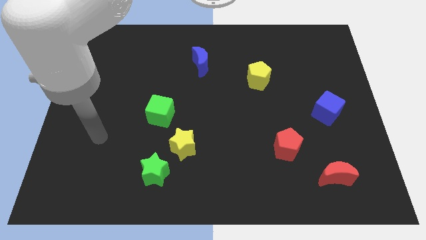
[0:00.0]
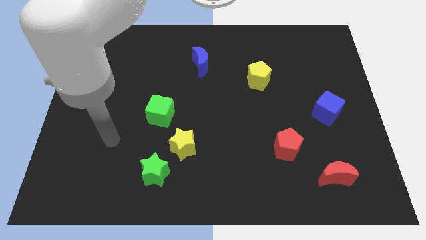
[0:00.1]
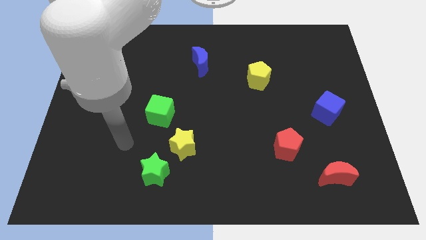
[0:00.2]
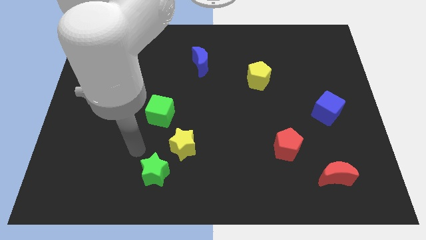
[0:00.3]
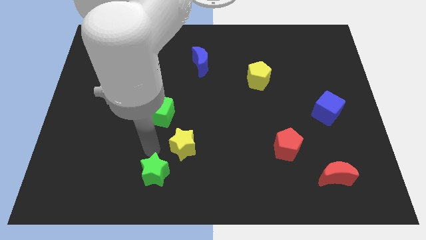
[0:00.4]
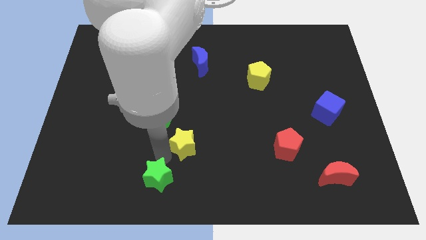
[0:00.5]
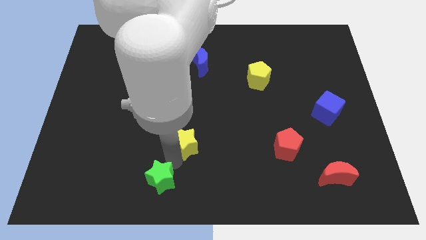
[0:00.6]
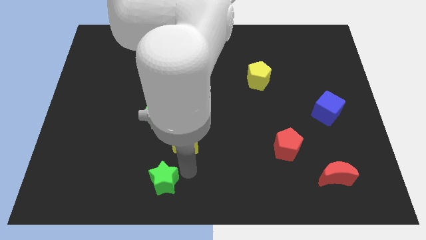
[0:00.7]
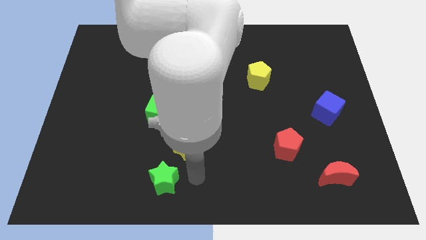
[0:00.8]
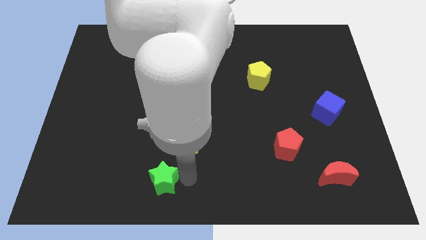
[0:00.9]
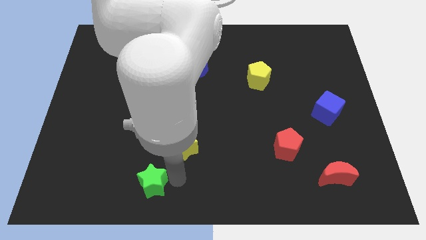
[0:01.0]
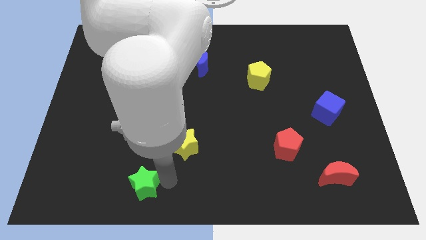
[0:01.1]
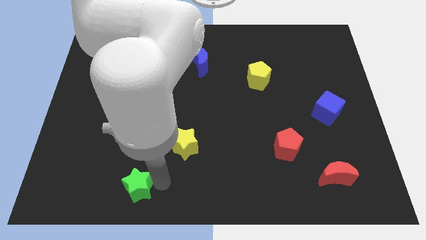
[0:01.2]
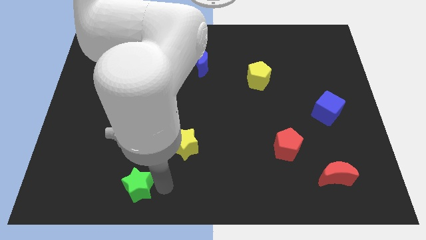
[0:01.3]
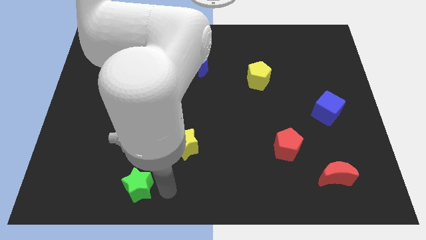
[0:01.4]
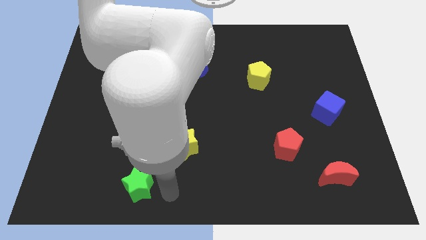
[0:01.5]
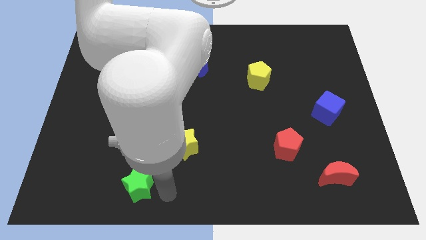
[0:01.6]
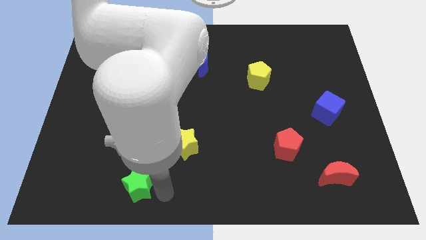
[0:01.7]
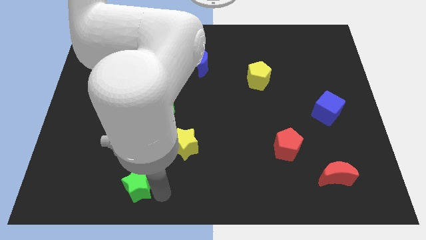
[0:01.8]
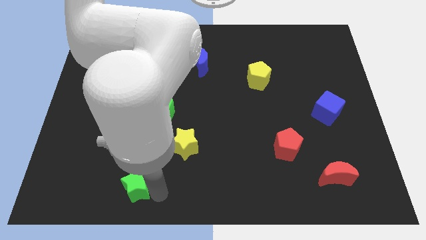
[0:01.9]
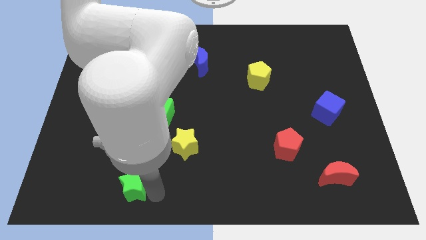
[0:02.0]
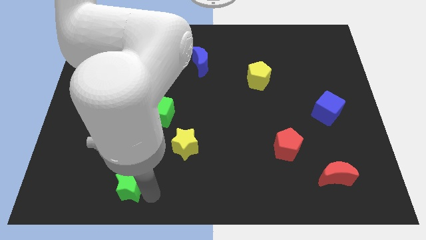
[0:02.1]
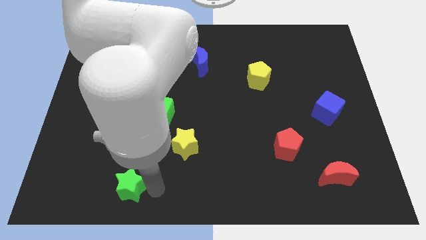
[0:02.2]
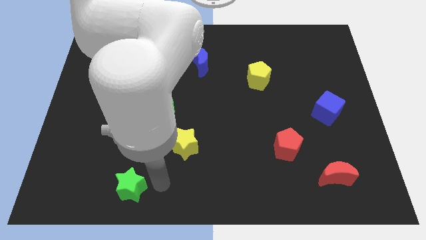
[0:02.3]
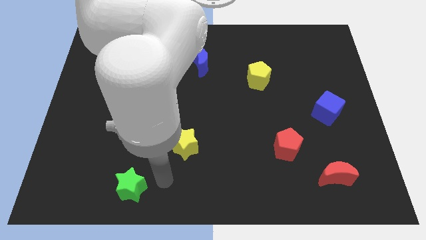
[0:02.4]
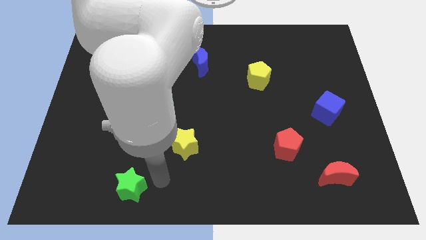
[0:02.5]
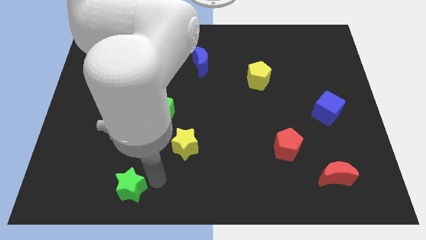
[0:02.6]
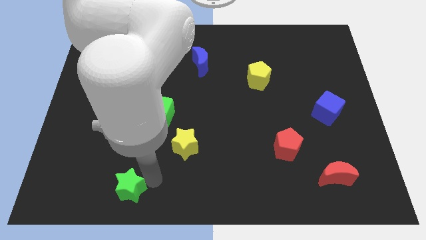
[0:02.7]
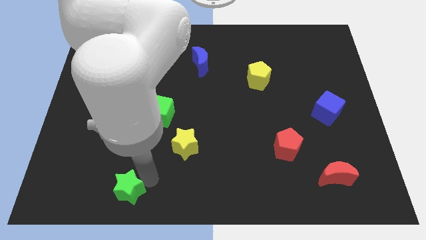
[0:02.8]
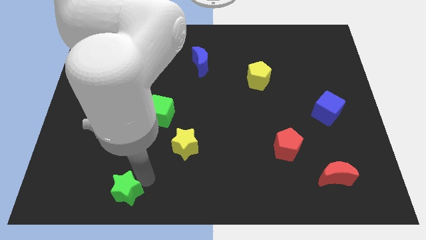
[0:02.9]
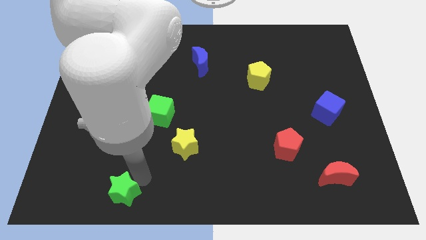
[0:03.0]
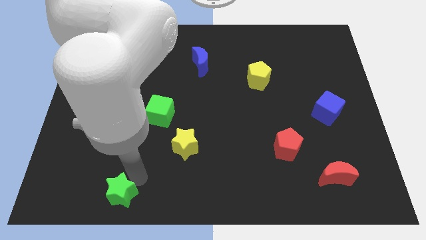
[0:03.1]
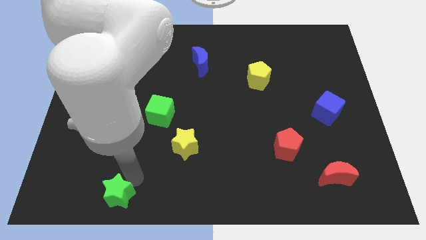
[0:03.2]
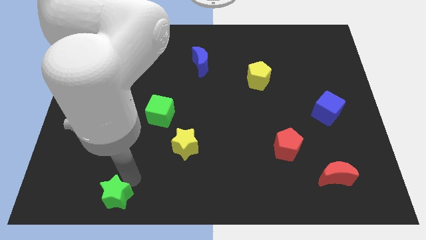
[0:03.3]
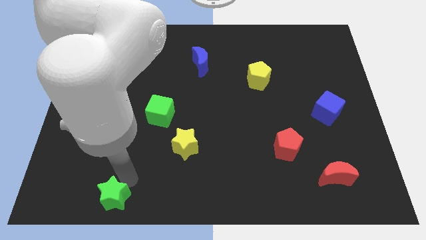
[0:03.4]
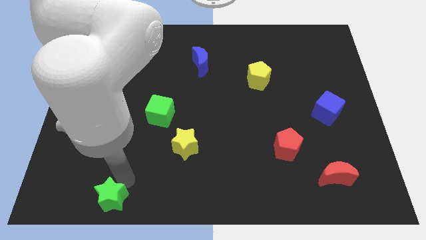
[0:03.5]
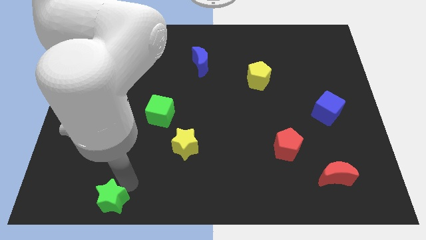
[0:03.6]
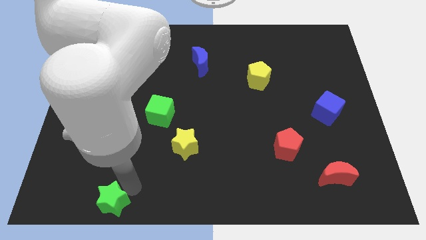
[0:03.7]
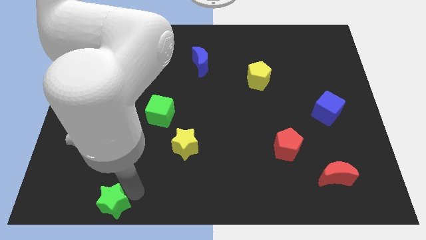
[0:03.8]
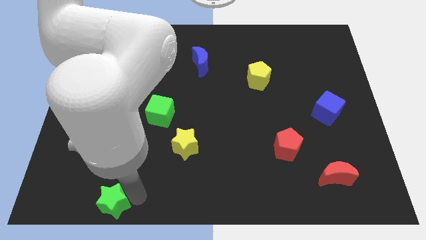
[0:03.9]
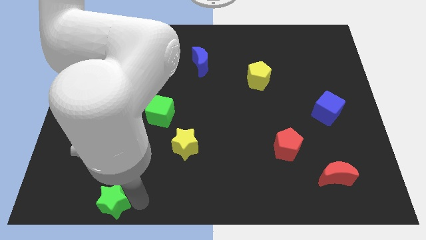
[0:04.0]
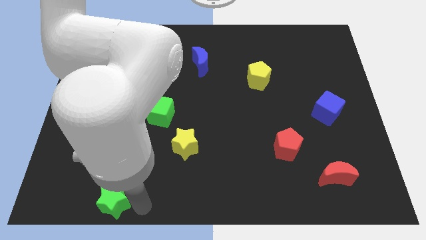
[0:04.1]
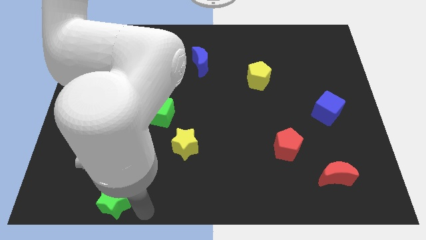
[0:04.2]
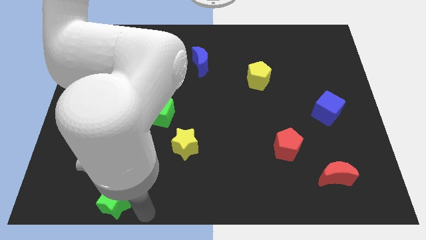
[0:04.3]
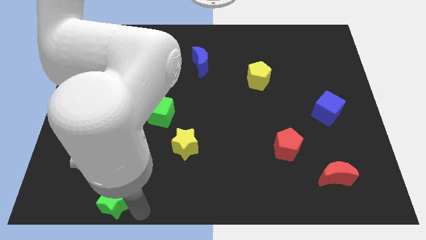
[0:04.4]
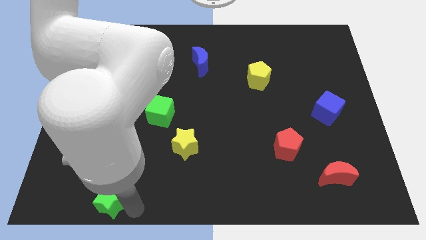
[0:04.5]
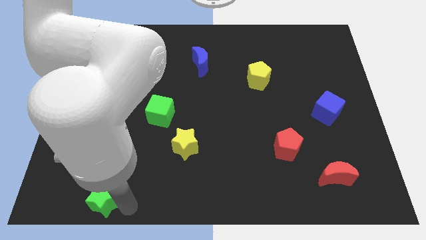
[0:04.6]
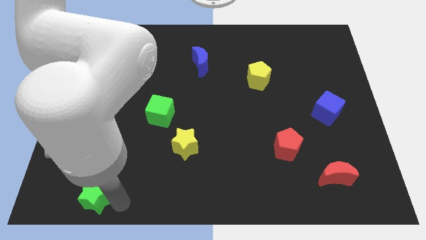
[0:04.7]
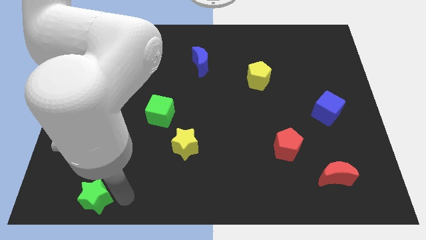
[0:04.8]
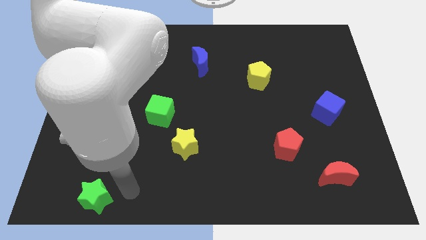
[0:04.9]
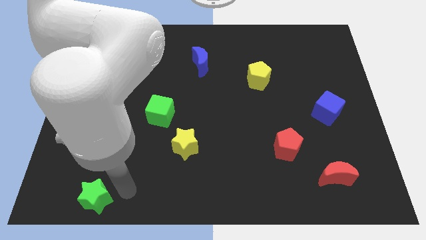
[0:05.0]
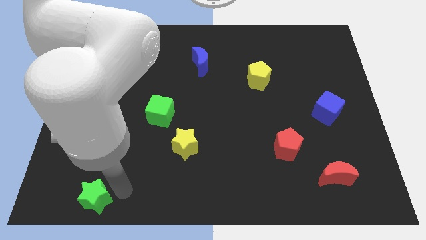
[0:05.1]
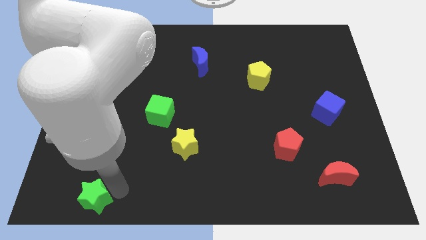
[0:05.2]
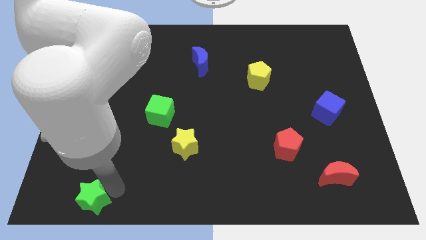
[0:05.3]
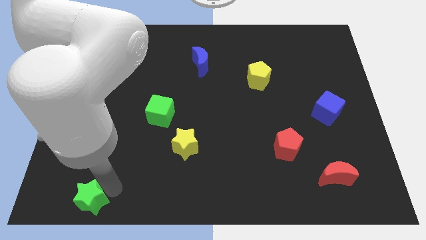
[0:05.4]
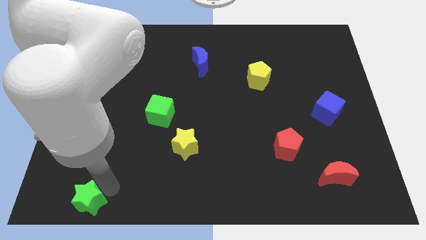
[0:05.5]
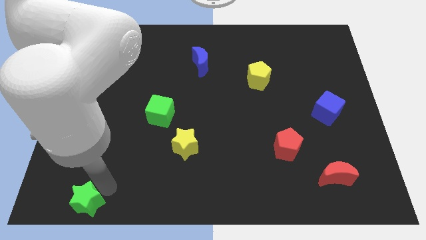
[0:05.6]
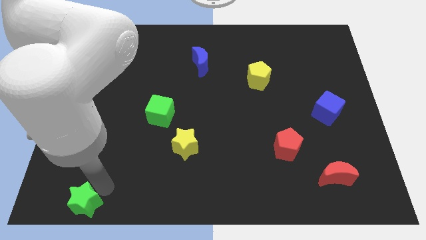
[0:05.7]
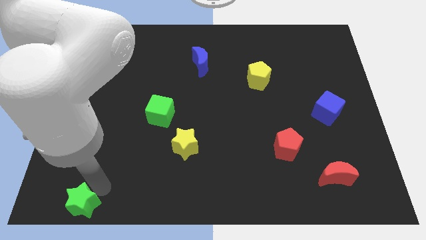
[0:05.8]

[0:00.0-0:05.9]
slide the green star to the lower left corner

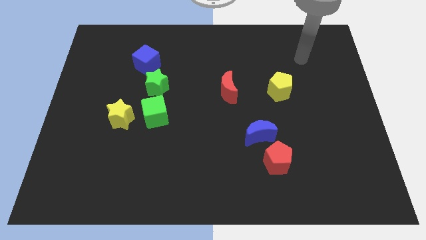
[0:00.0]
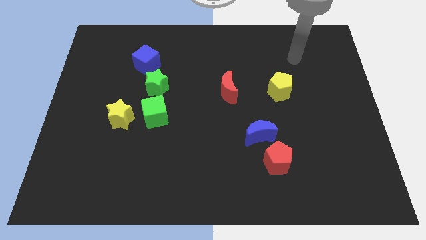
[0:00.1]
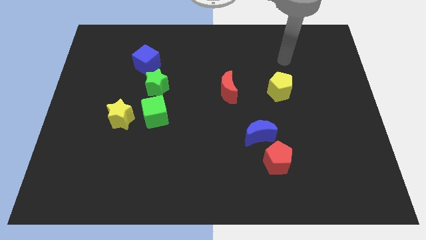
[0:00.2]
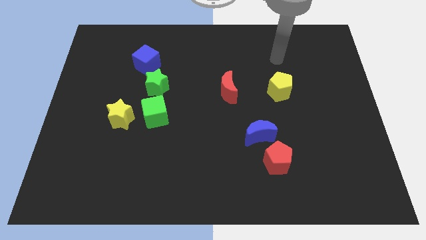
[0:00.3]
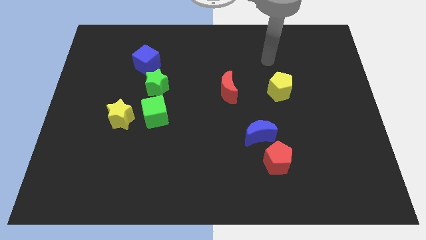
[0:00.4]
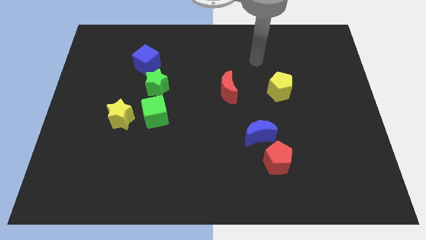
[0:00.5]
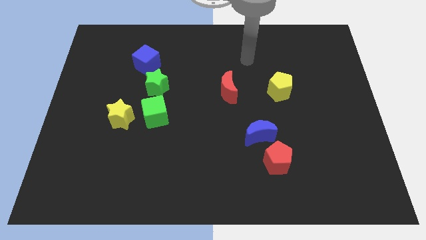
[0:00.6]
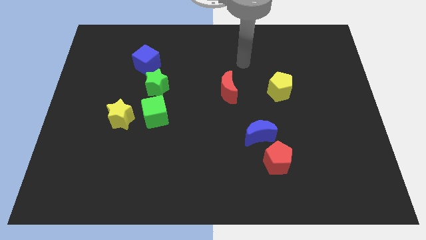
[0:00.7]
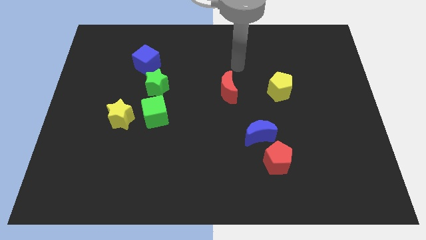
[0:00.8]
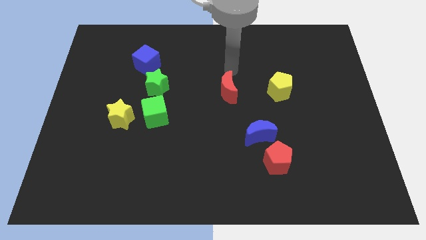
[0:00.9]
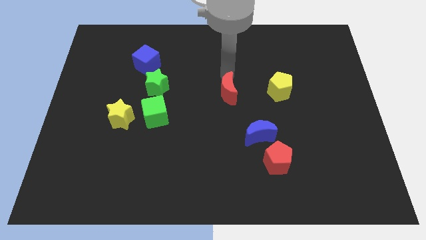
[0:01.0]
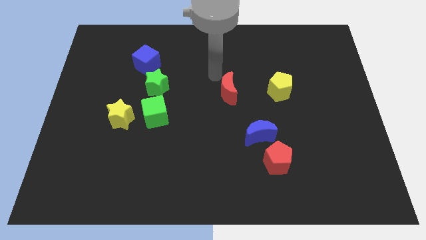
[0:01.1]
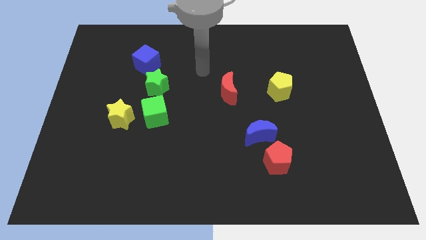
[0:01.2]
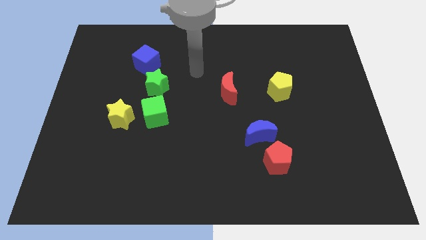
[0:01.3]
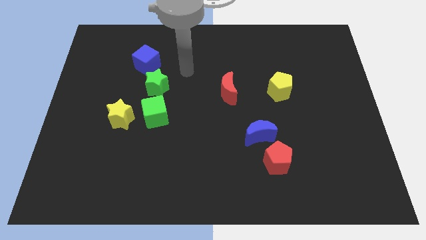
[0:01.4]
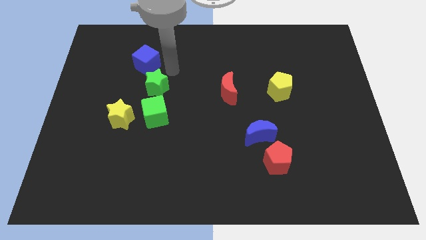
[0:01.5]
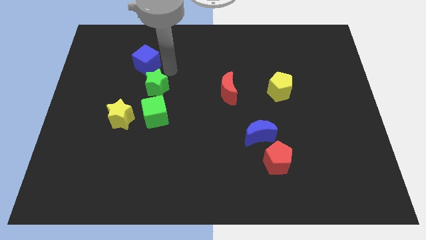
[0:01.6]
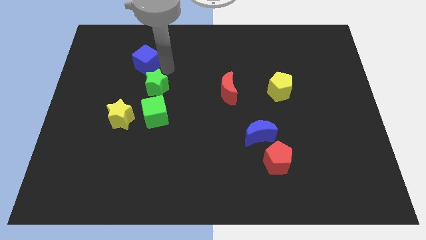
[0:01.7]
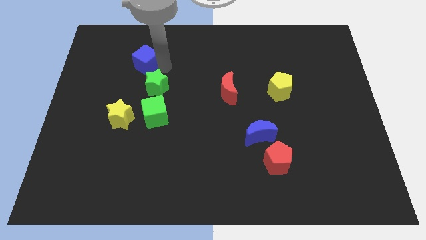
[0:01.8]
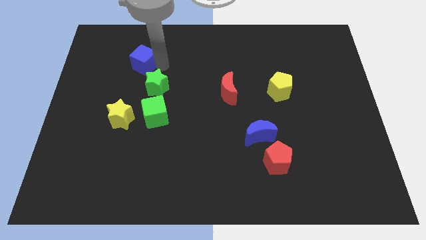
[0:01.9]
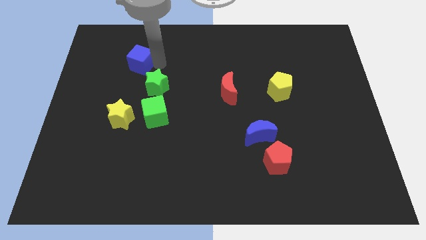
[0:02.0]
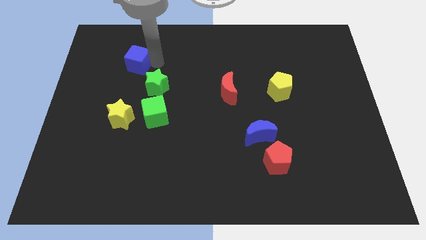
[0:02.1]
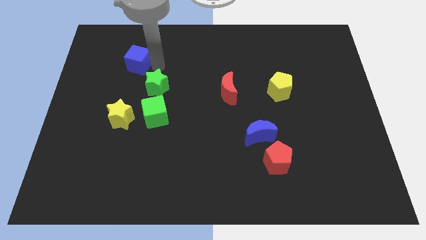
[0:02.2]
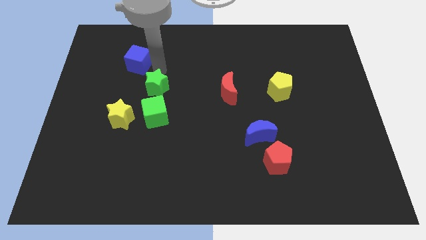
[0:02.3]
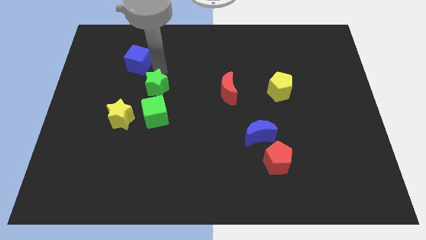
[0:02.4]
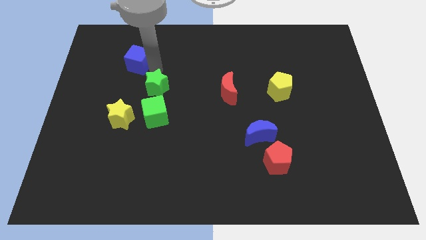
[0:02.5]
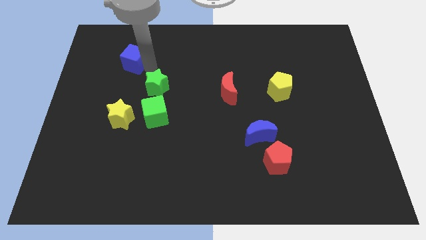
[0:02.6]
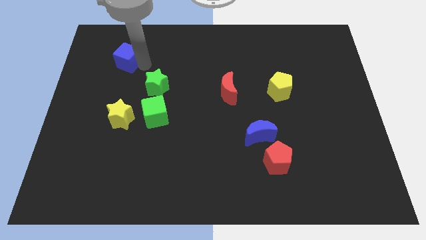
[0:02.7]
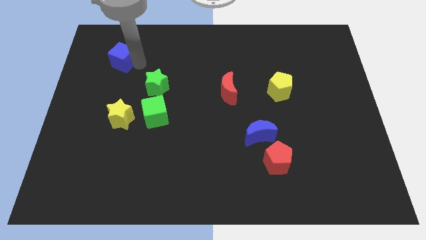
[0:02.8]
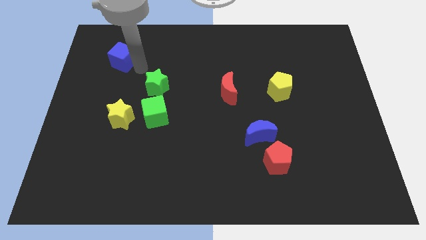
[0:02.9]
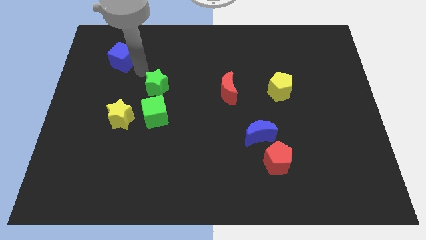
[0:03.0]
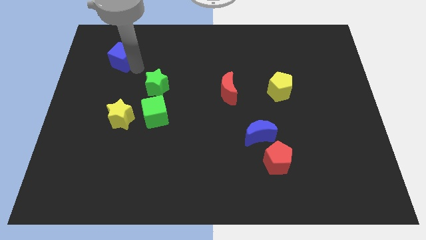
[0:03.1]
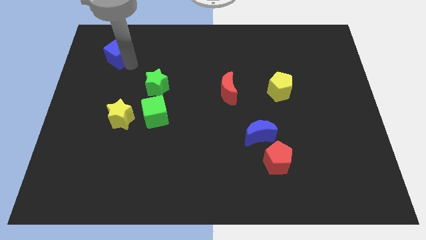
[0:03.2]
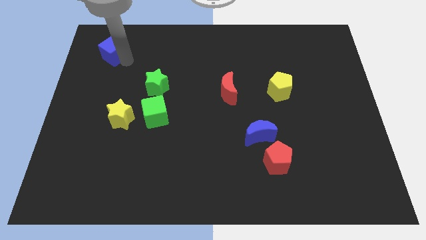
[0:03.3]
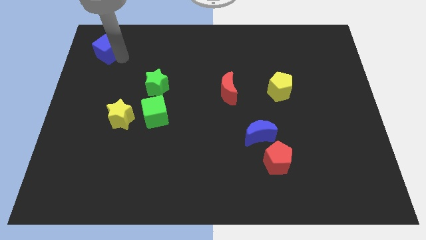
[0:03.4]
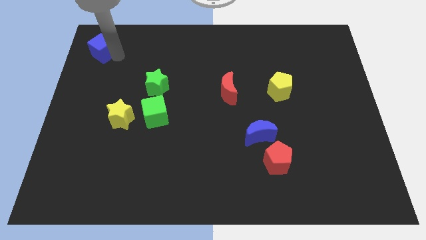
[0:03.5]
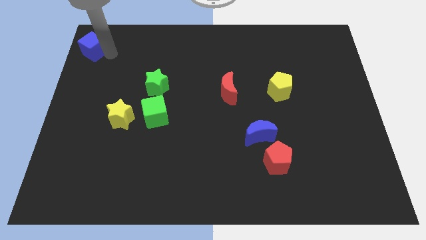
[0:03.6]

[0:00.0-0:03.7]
slide the blue cube to the top left of the board
